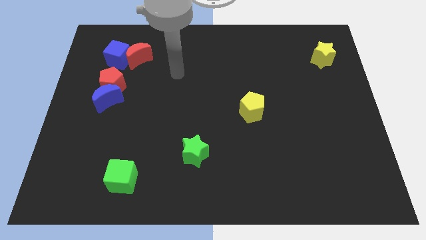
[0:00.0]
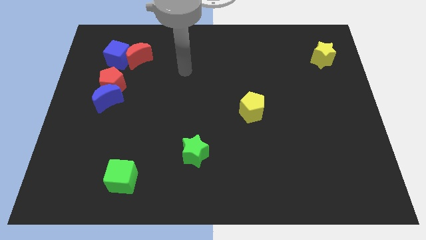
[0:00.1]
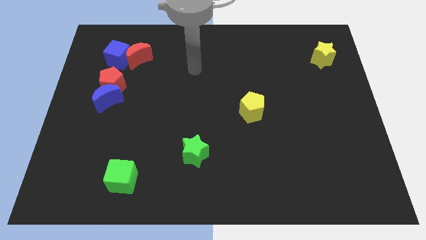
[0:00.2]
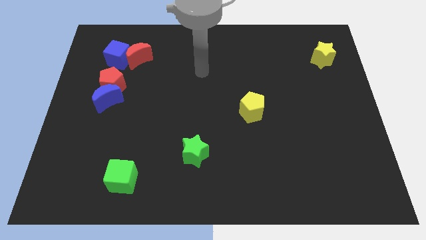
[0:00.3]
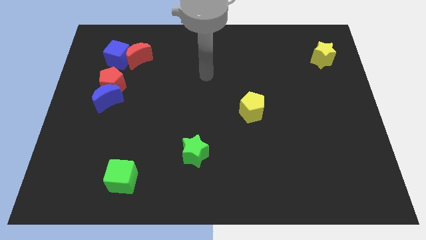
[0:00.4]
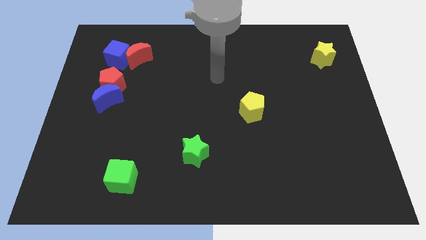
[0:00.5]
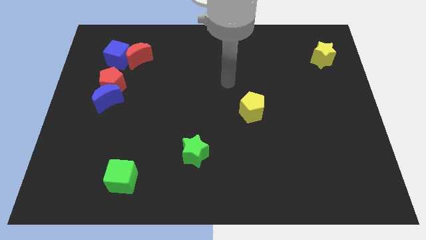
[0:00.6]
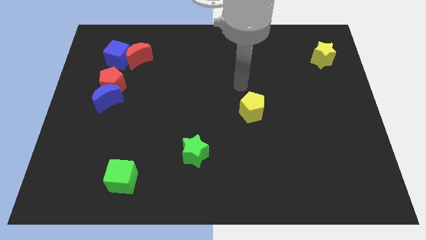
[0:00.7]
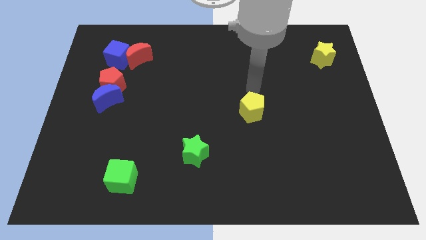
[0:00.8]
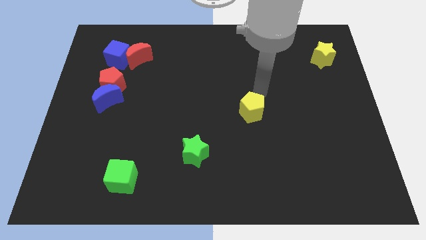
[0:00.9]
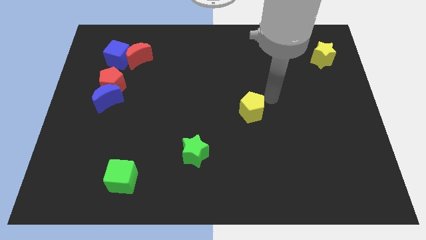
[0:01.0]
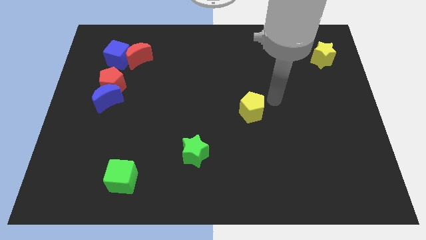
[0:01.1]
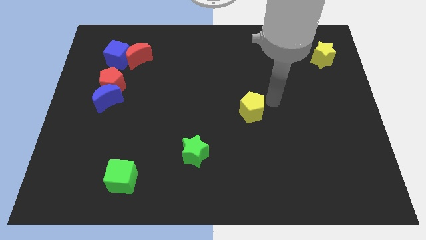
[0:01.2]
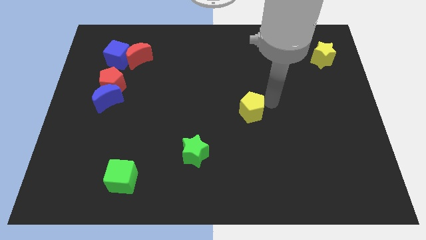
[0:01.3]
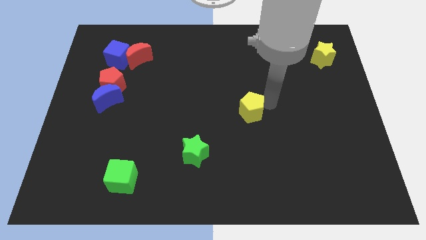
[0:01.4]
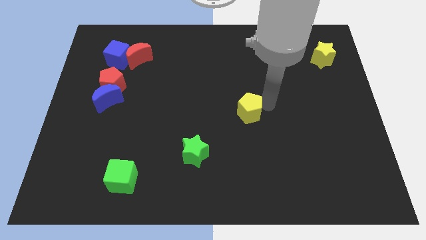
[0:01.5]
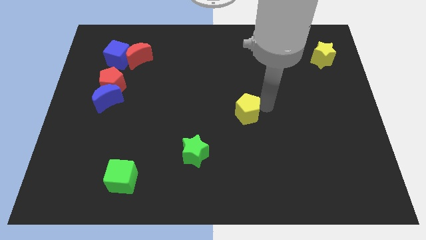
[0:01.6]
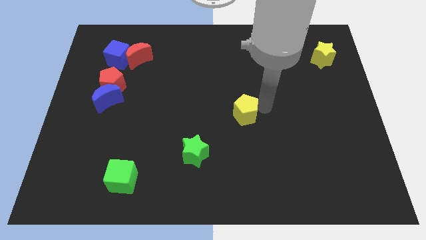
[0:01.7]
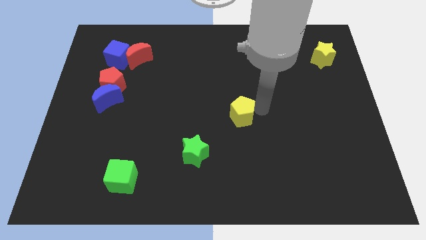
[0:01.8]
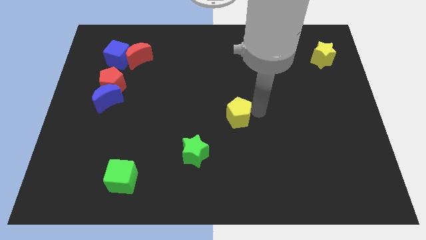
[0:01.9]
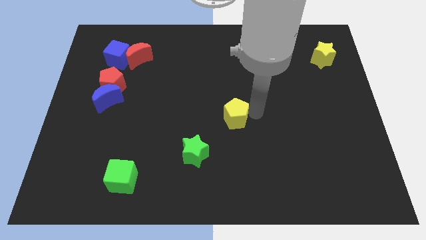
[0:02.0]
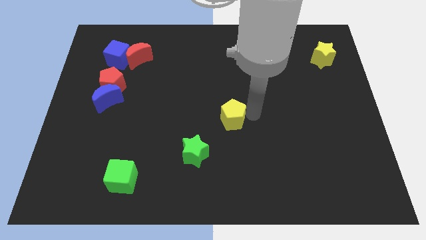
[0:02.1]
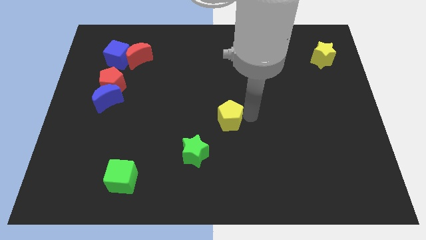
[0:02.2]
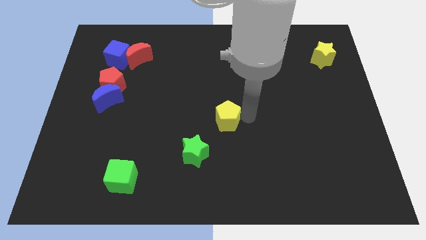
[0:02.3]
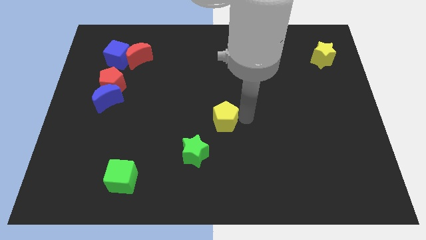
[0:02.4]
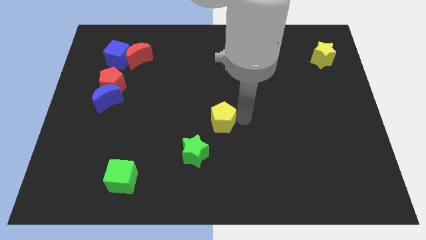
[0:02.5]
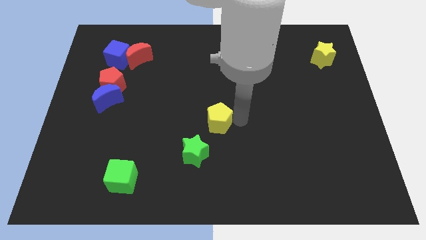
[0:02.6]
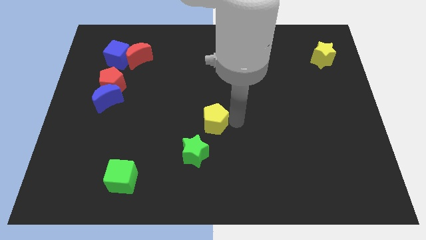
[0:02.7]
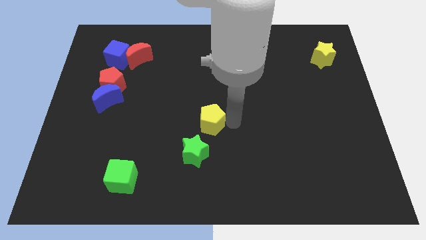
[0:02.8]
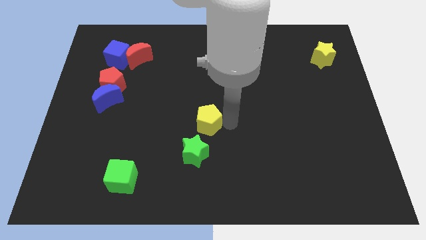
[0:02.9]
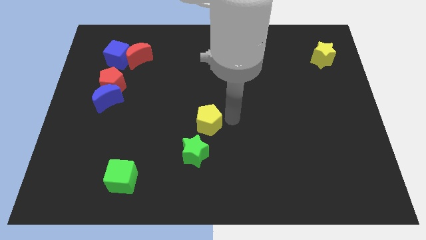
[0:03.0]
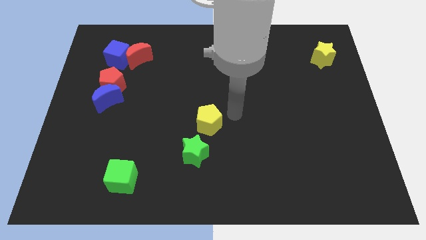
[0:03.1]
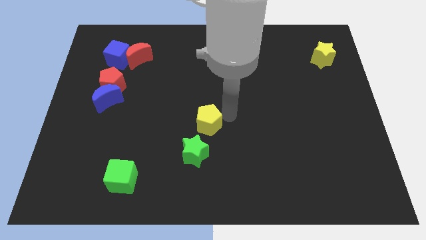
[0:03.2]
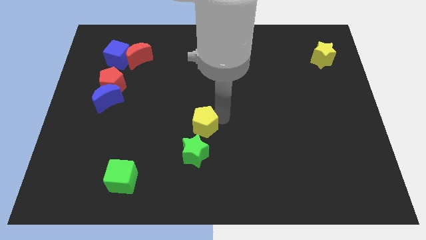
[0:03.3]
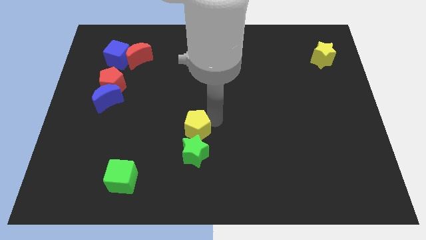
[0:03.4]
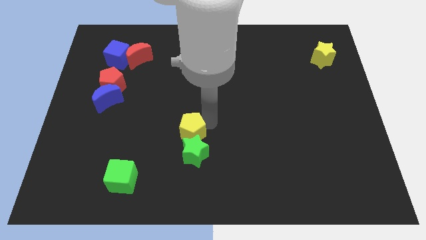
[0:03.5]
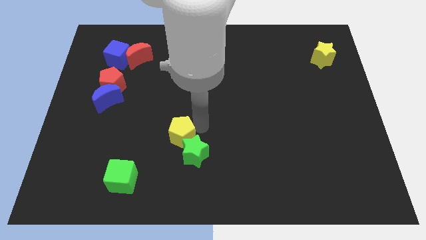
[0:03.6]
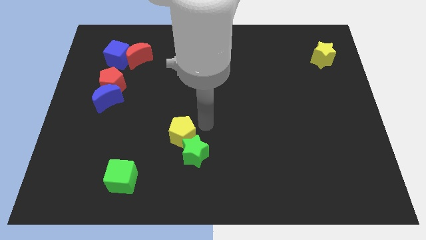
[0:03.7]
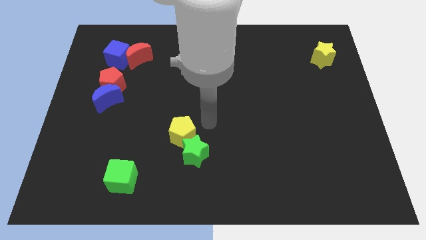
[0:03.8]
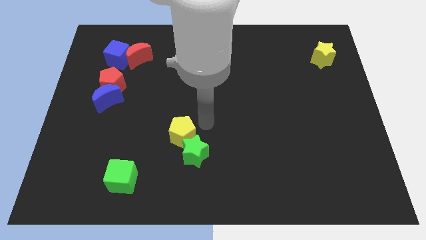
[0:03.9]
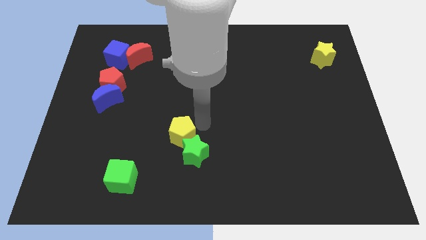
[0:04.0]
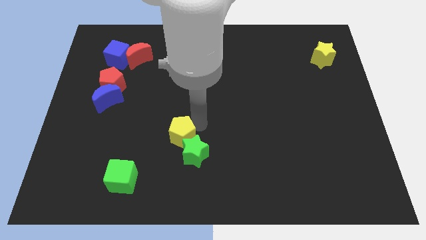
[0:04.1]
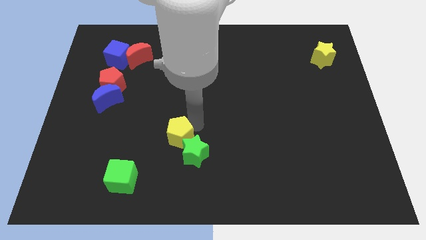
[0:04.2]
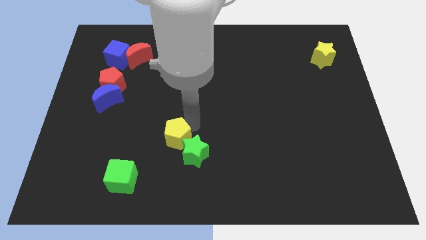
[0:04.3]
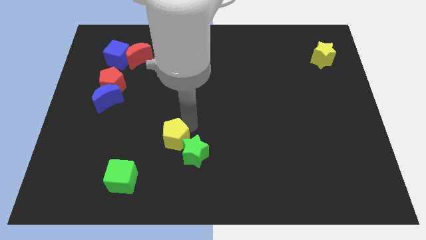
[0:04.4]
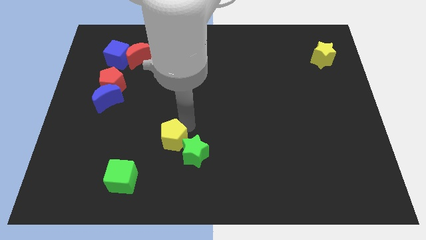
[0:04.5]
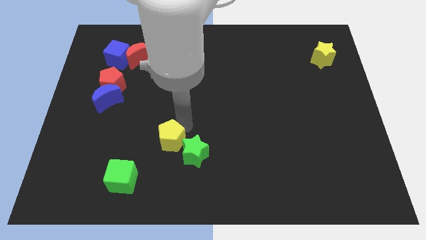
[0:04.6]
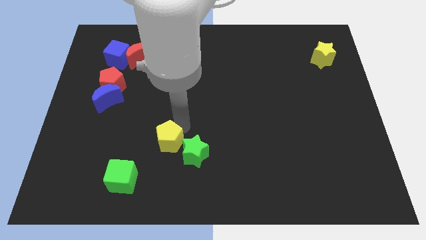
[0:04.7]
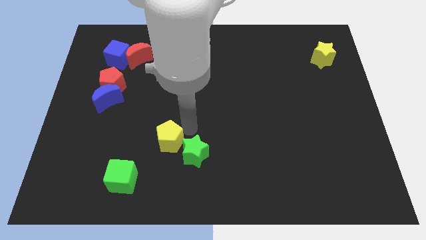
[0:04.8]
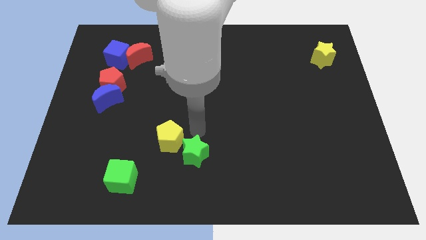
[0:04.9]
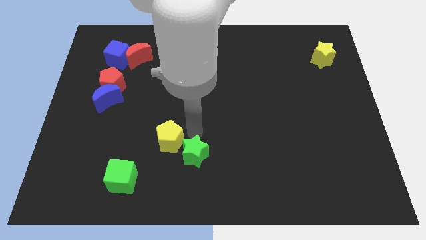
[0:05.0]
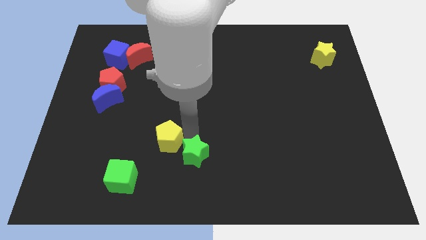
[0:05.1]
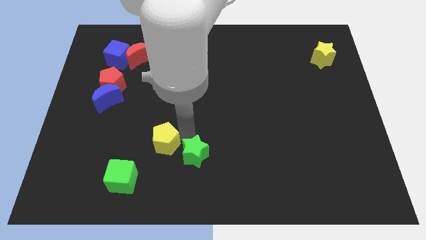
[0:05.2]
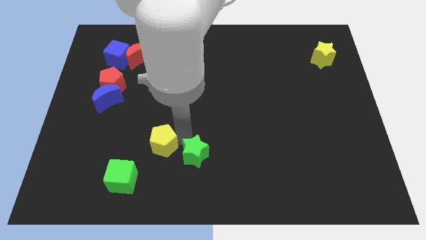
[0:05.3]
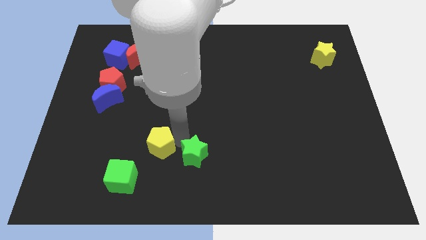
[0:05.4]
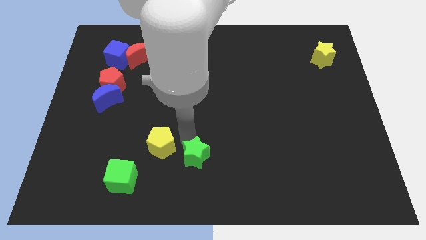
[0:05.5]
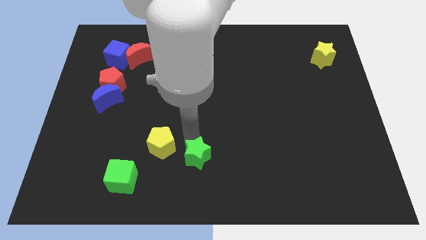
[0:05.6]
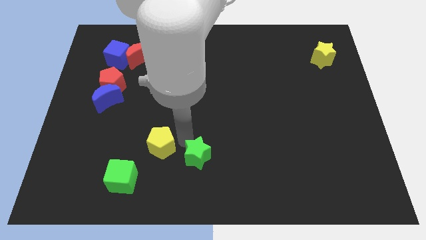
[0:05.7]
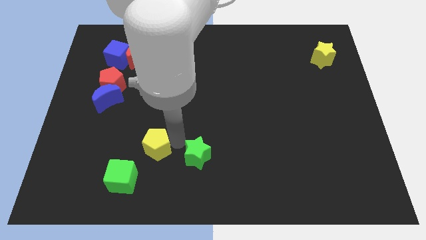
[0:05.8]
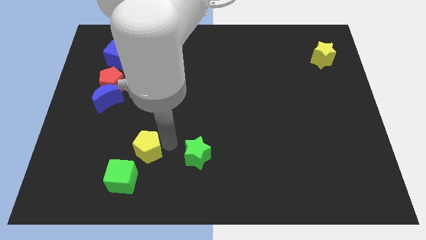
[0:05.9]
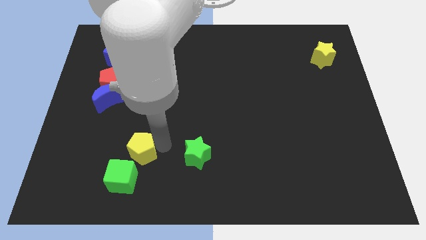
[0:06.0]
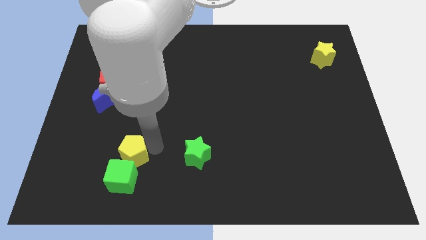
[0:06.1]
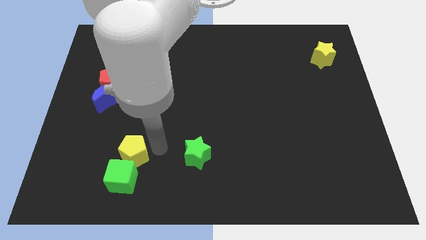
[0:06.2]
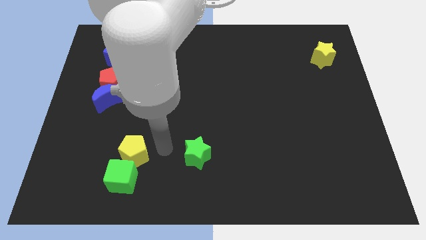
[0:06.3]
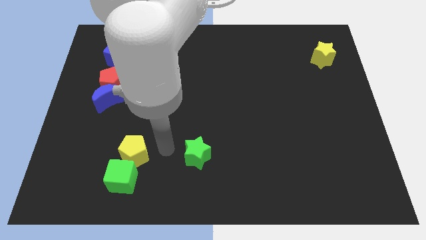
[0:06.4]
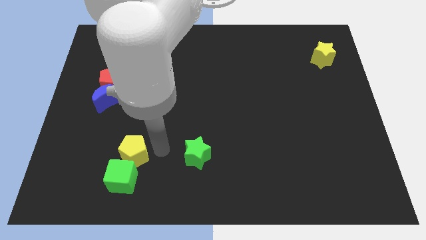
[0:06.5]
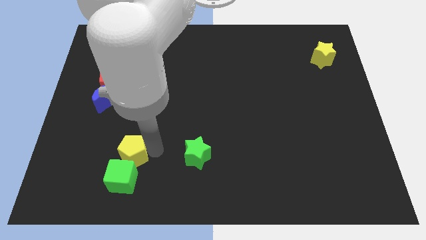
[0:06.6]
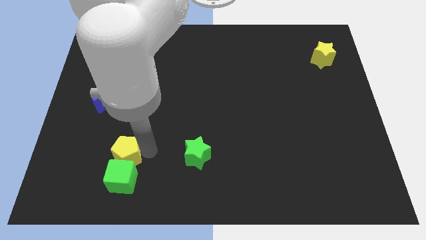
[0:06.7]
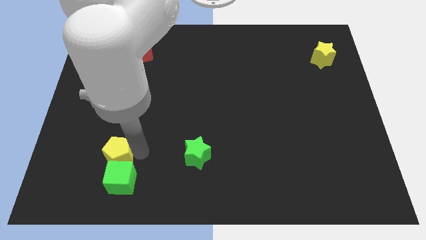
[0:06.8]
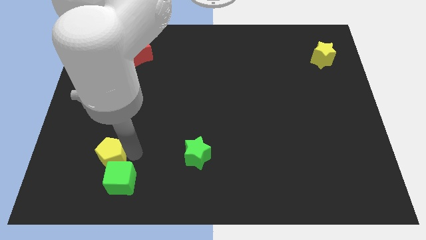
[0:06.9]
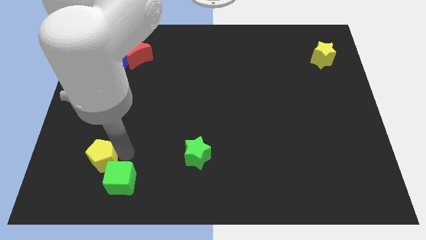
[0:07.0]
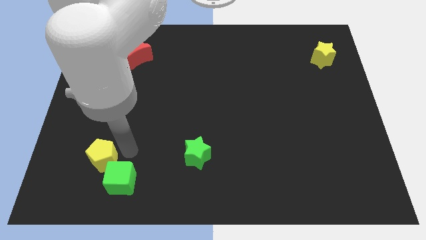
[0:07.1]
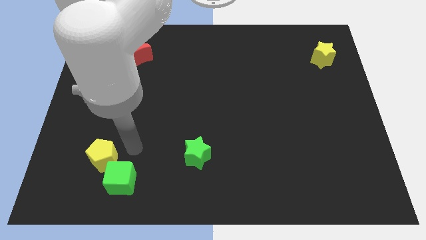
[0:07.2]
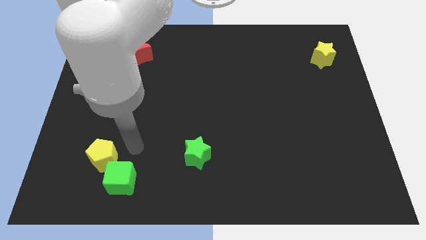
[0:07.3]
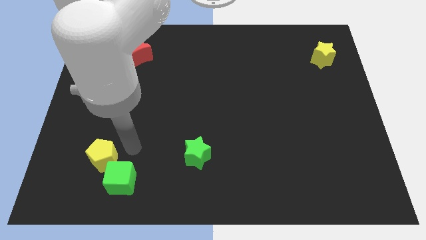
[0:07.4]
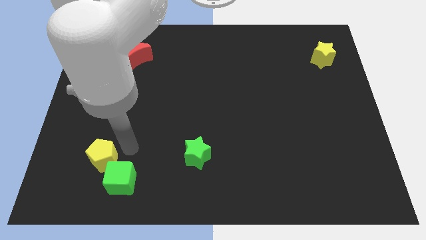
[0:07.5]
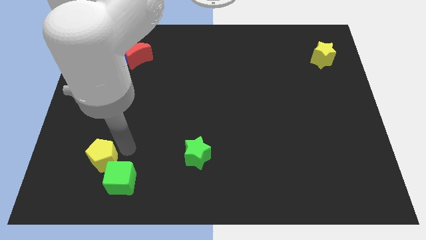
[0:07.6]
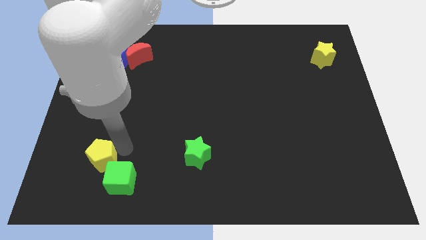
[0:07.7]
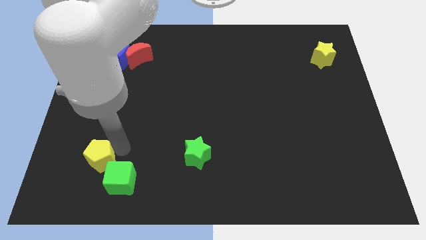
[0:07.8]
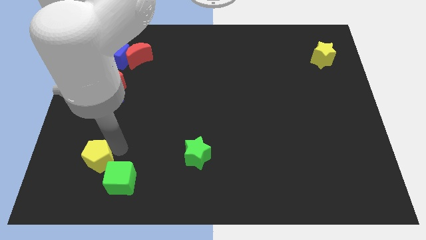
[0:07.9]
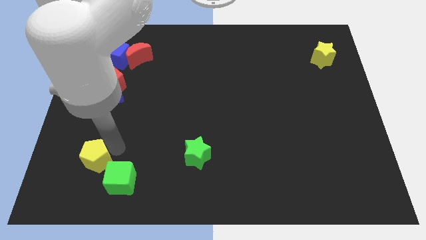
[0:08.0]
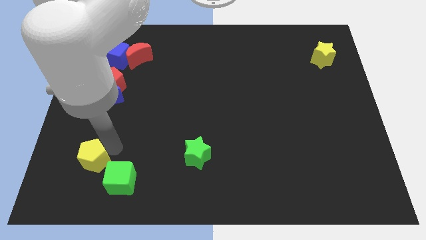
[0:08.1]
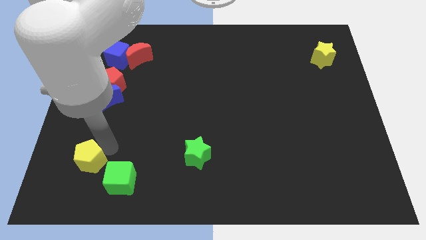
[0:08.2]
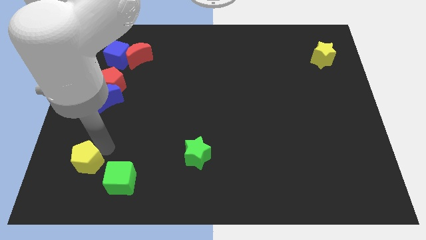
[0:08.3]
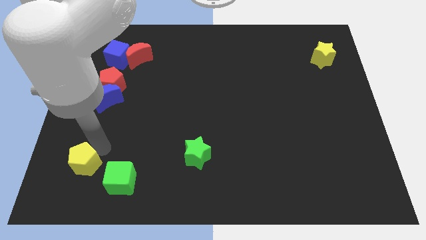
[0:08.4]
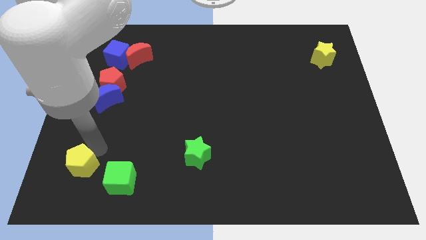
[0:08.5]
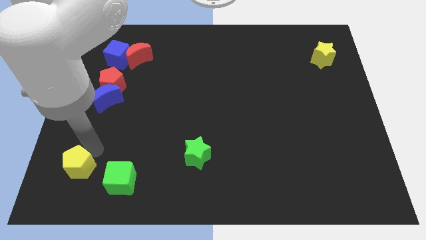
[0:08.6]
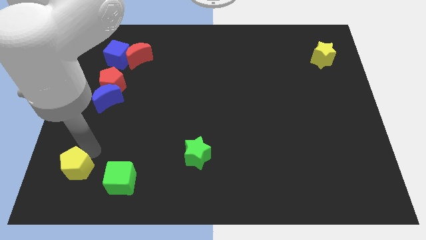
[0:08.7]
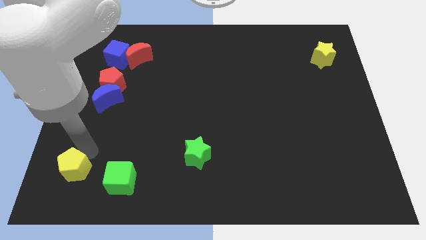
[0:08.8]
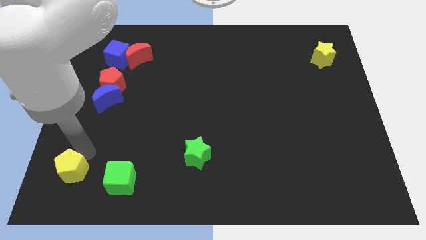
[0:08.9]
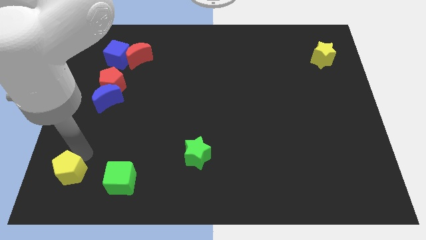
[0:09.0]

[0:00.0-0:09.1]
push the yellow pentagon to the lower left corner
